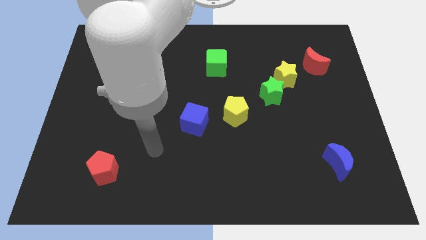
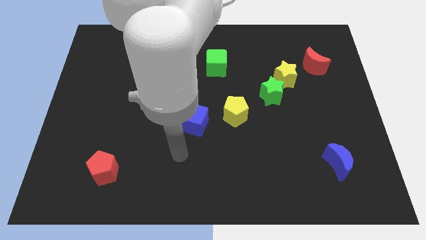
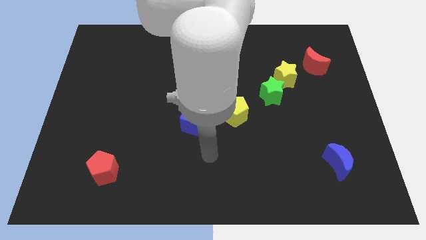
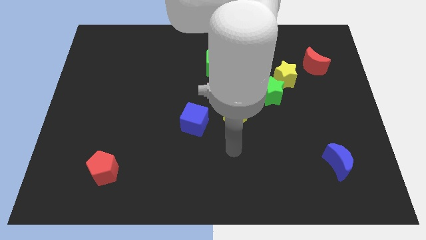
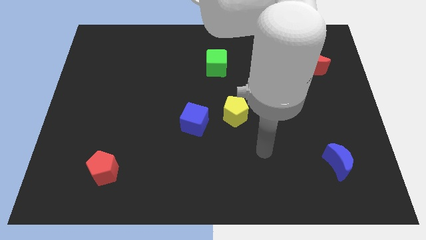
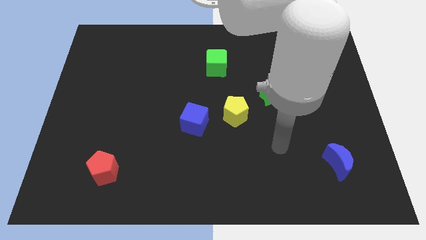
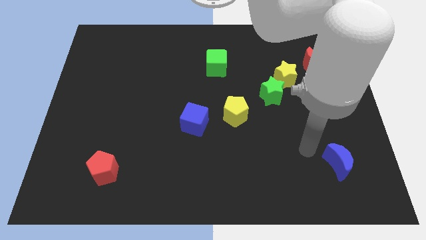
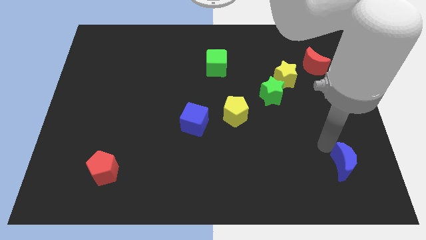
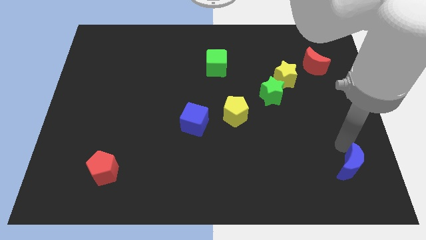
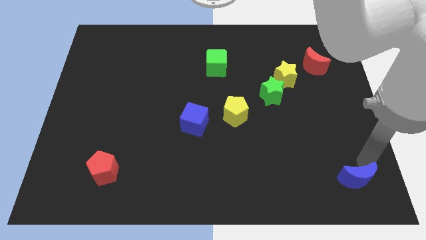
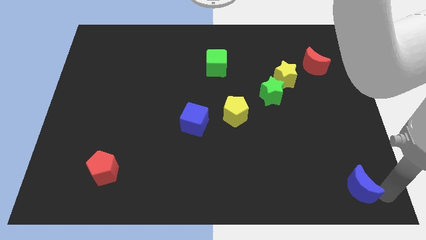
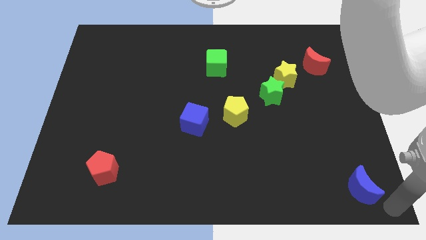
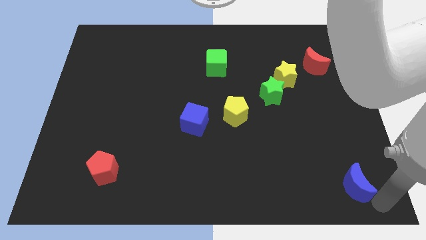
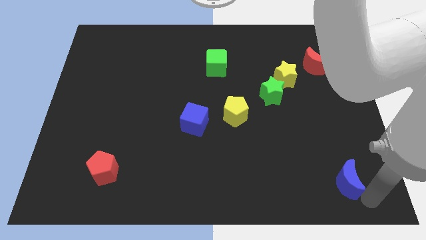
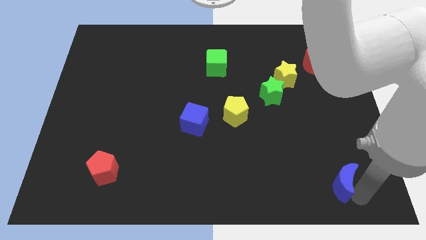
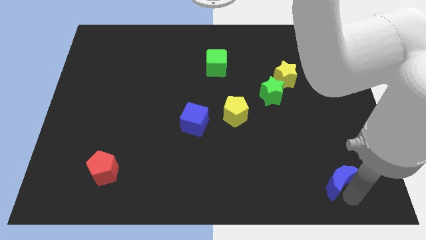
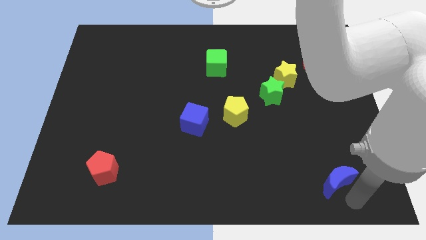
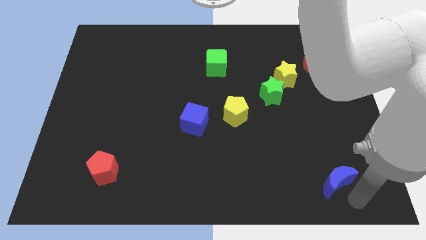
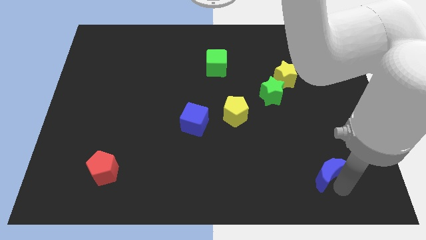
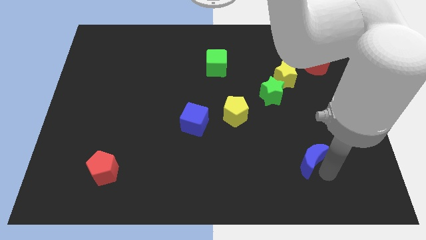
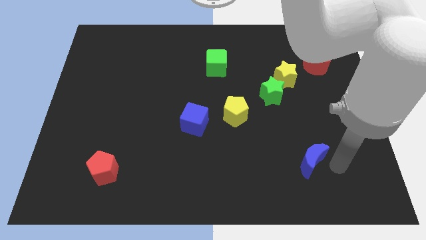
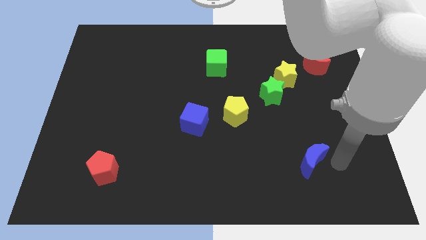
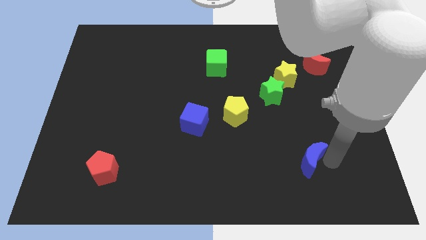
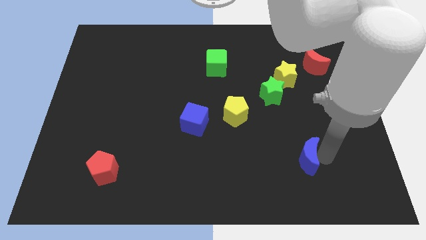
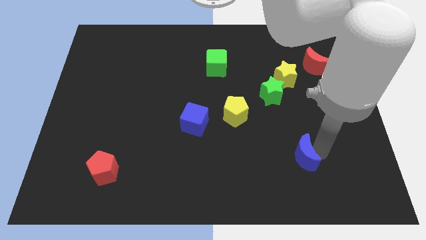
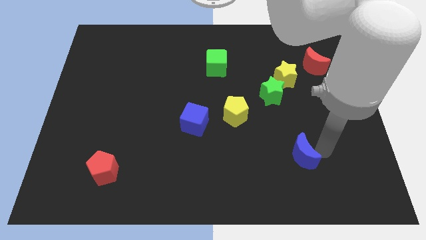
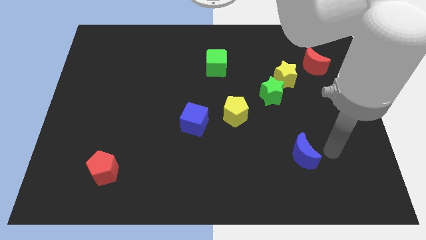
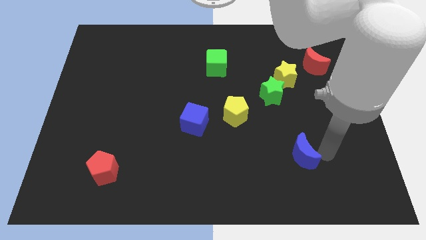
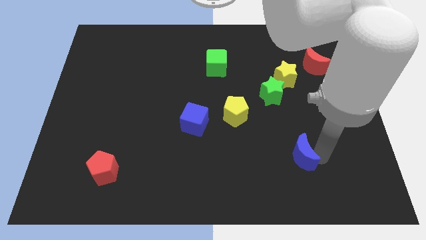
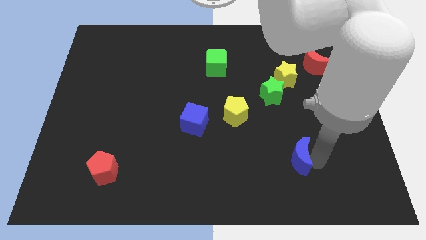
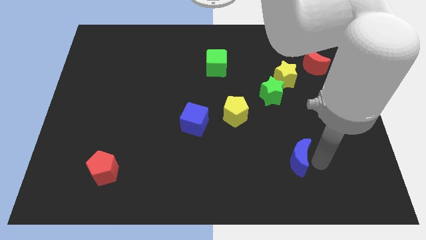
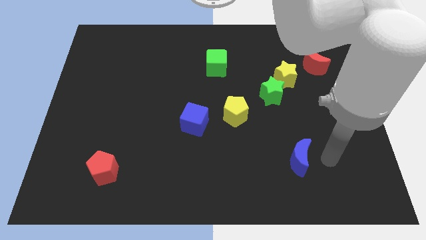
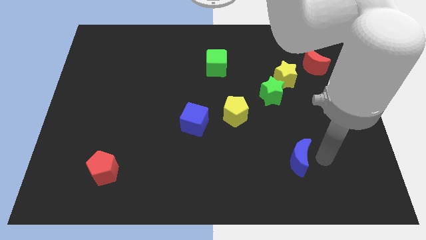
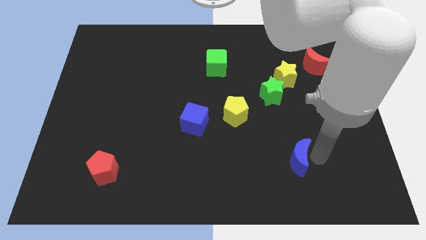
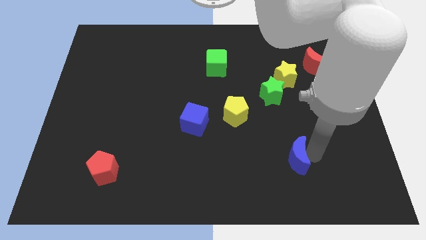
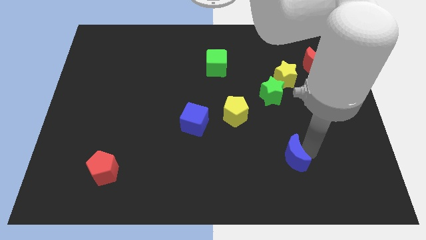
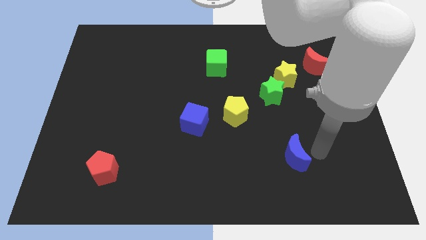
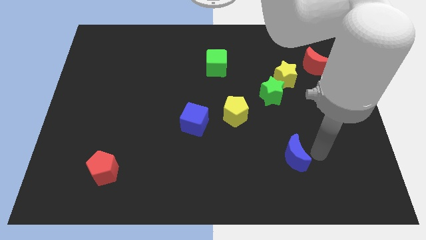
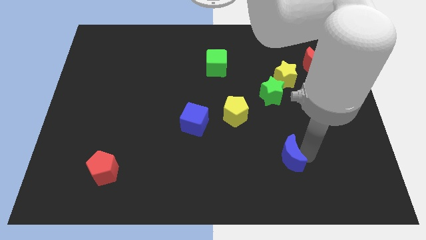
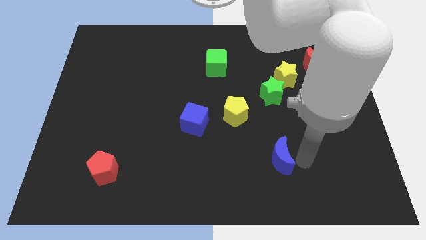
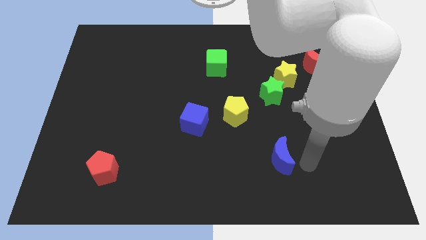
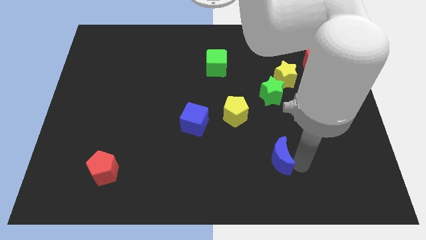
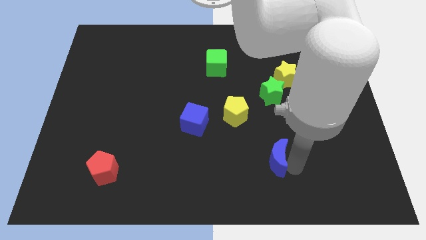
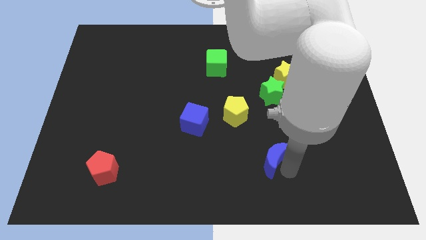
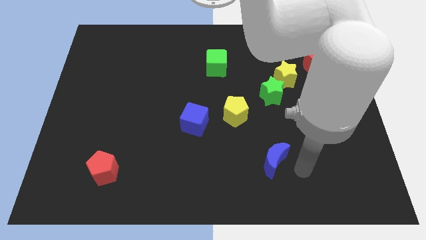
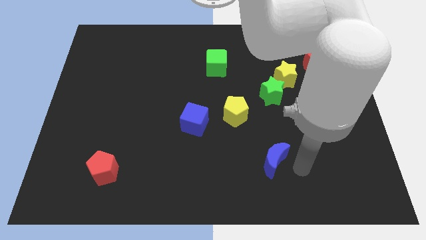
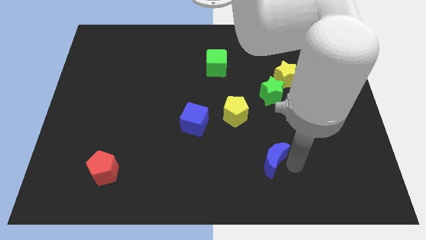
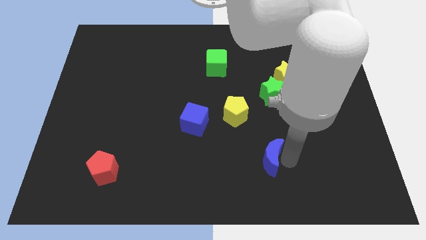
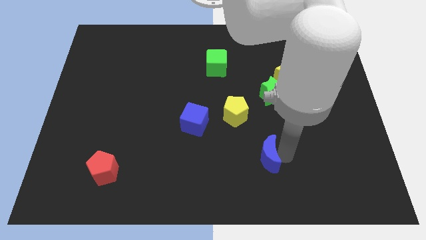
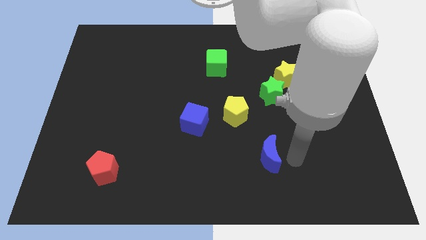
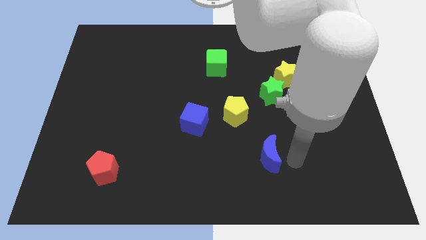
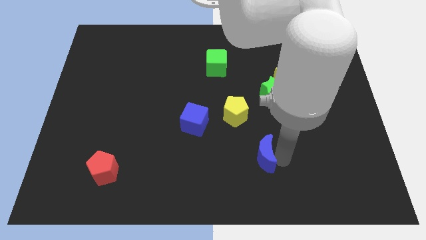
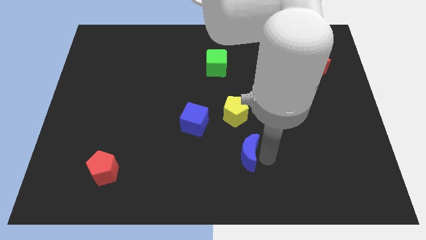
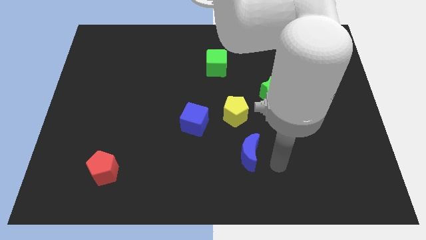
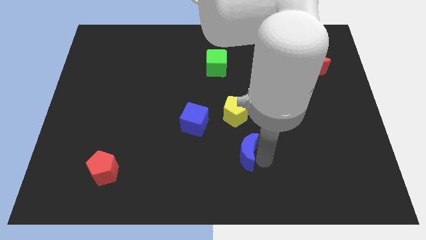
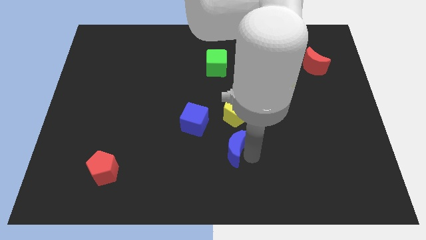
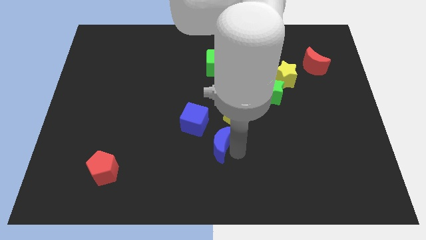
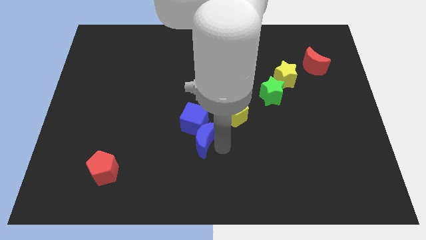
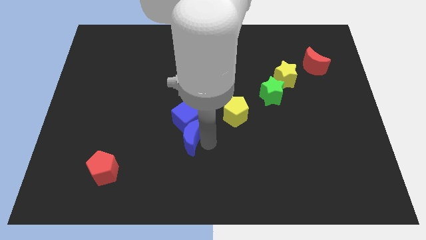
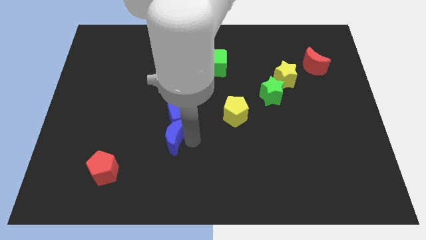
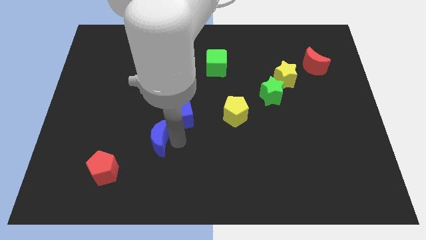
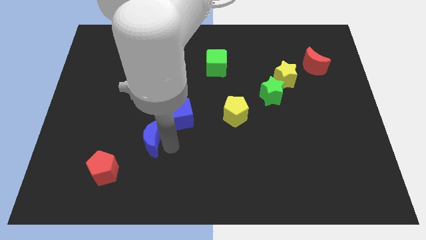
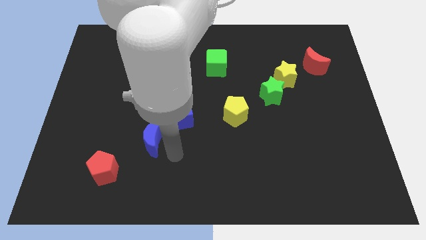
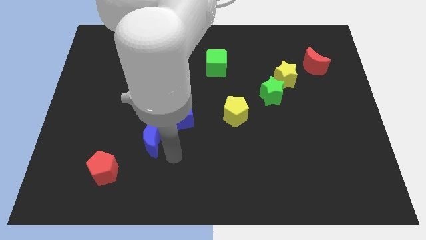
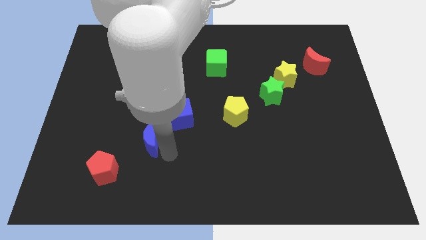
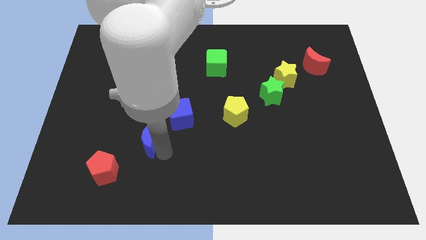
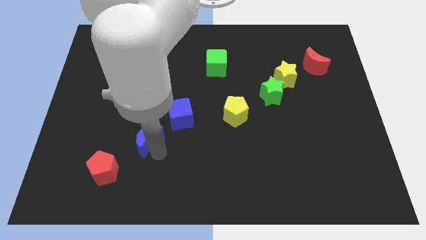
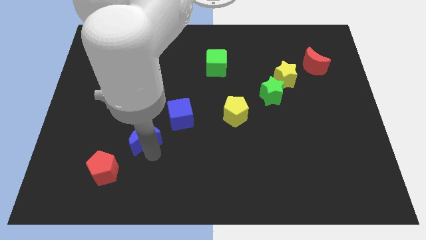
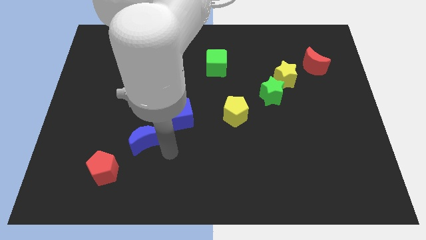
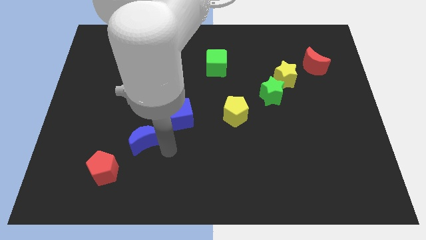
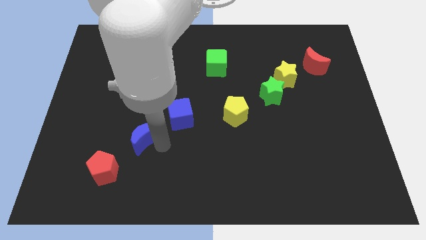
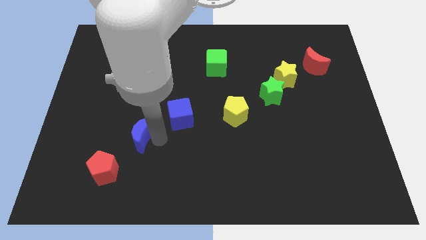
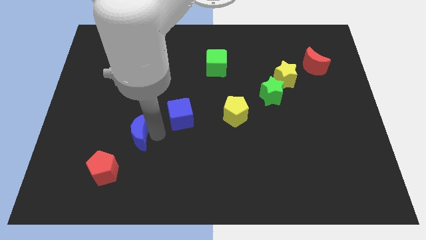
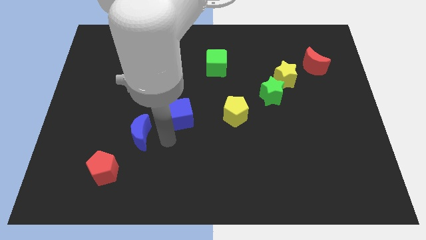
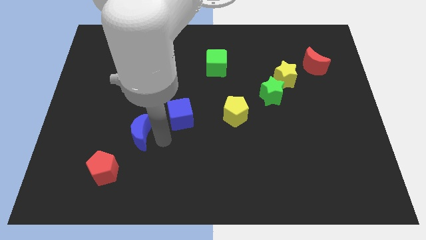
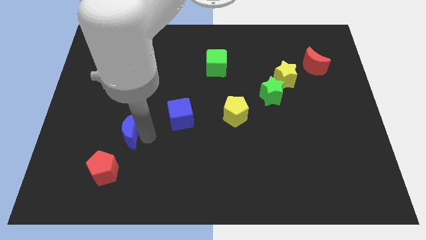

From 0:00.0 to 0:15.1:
push the blue moon to the top of the red pentagon

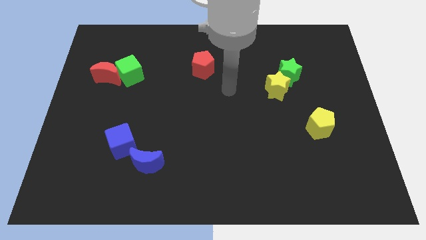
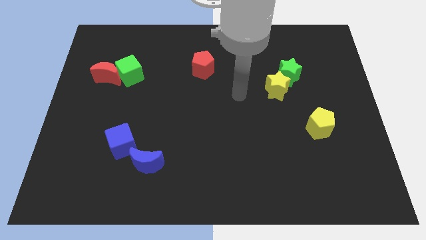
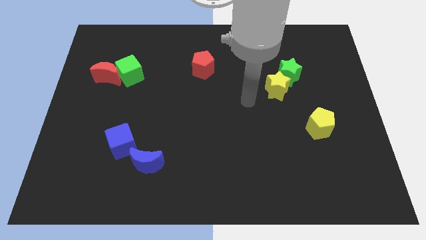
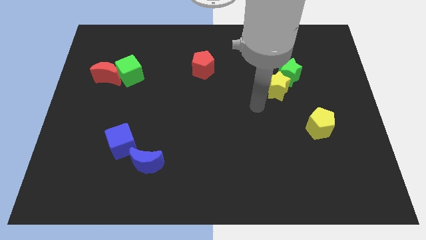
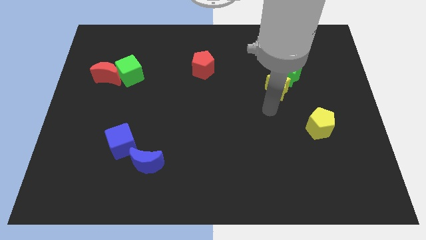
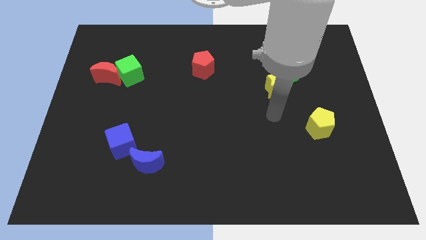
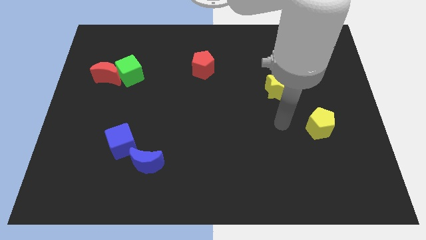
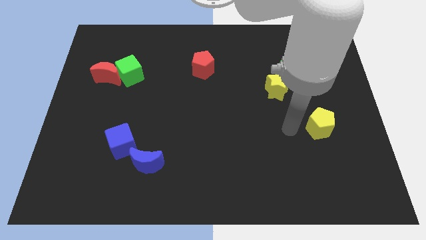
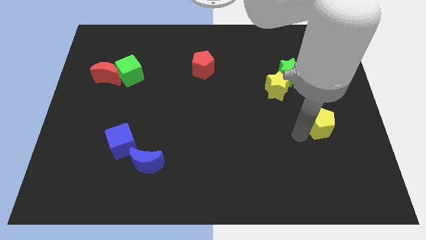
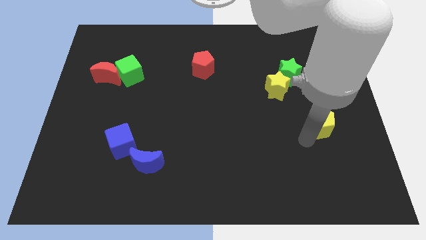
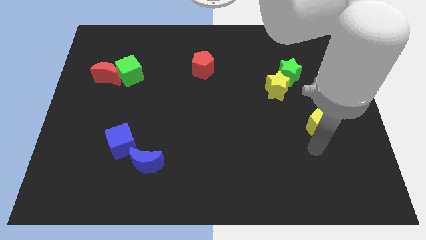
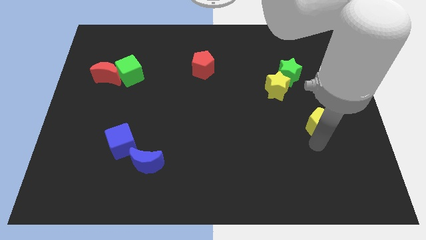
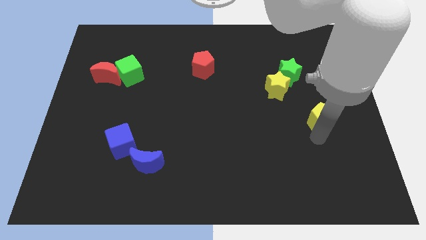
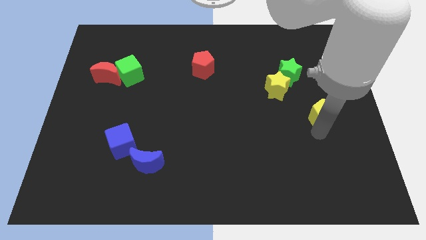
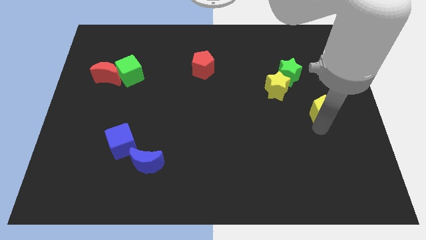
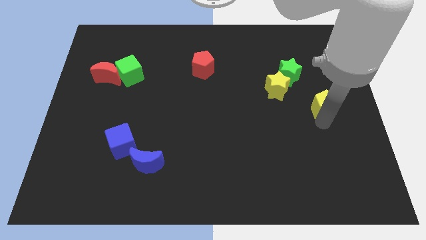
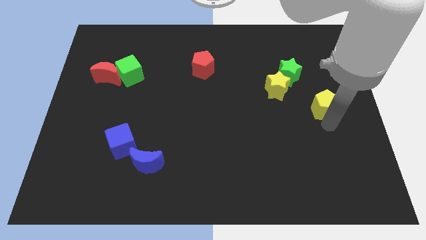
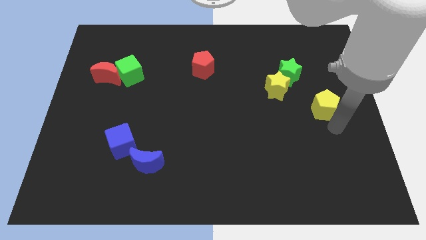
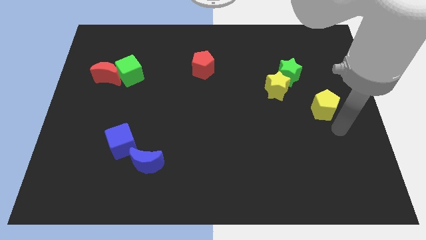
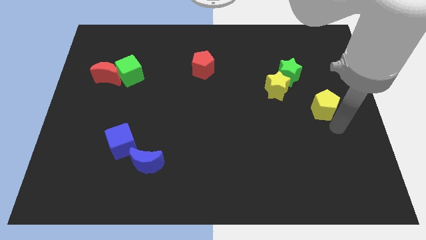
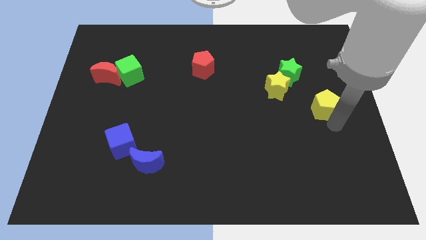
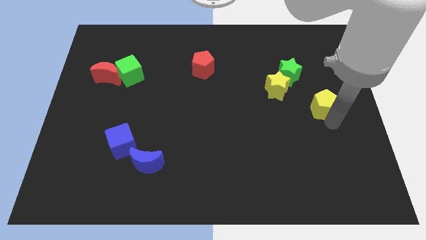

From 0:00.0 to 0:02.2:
move the yellow pentagon diagonally down and to the right of the green star
